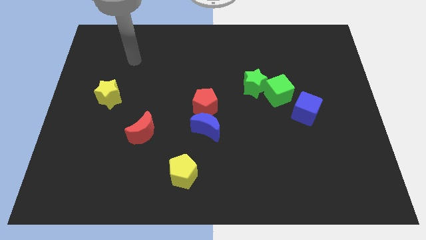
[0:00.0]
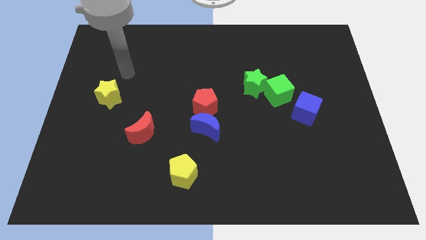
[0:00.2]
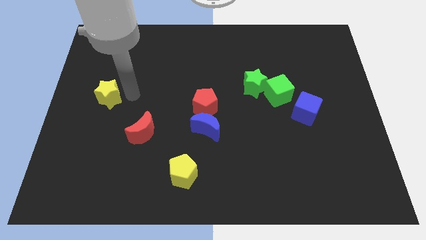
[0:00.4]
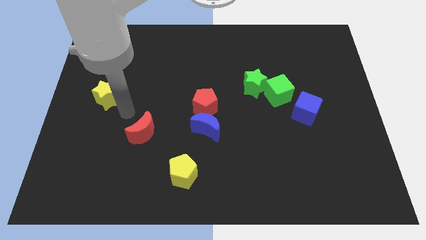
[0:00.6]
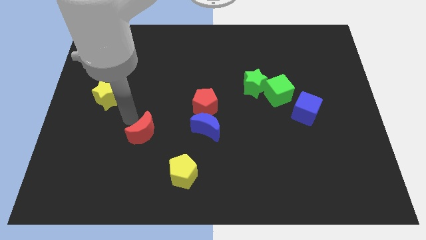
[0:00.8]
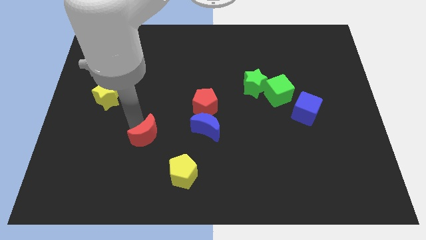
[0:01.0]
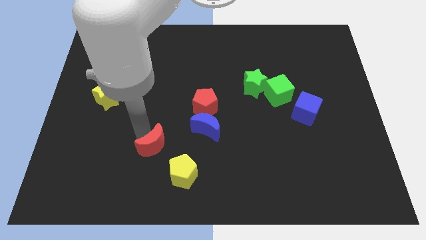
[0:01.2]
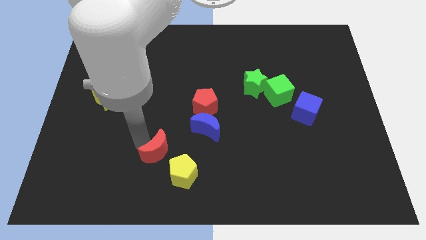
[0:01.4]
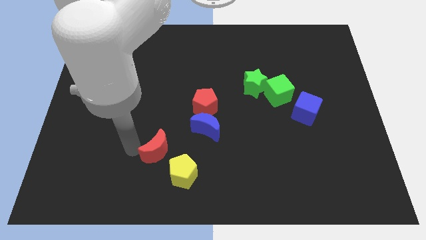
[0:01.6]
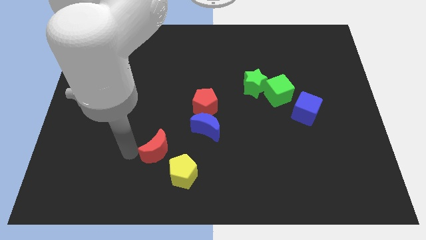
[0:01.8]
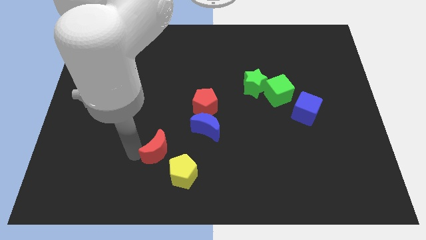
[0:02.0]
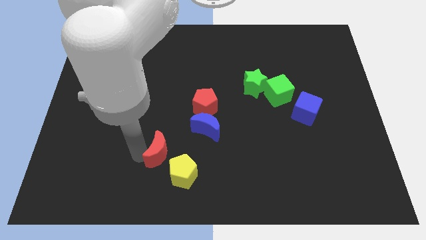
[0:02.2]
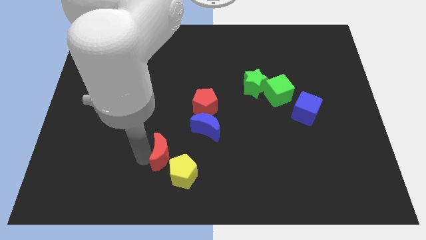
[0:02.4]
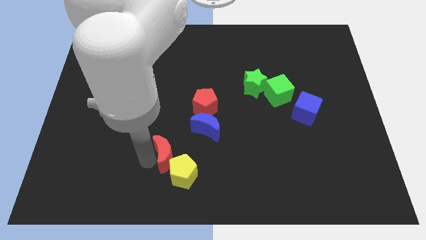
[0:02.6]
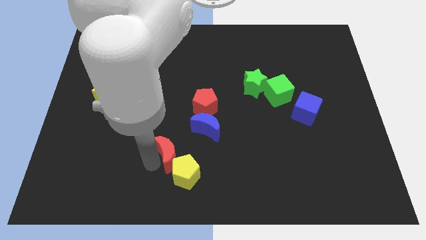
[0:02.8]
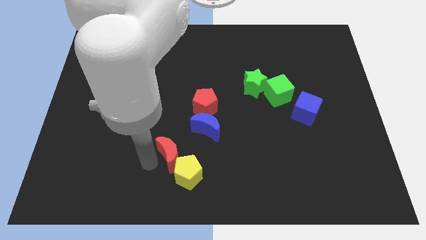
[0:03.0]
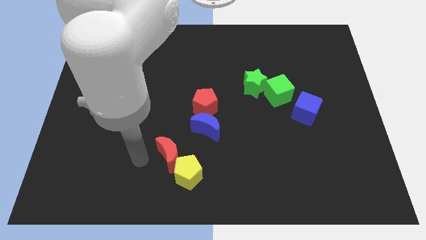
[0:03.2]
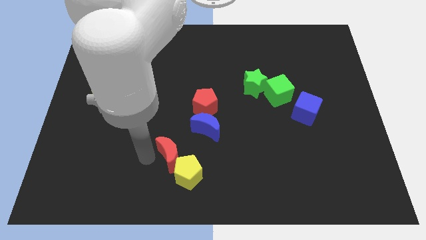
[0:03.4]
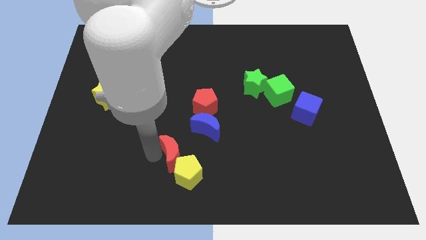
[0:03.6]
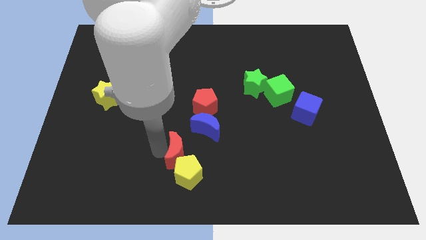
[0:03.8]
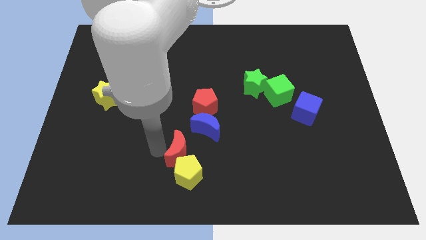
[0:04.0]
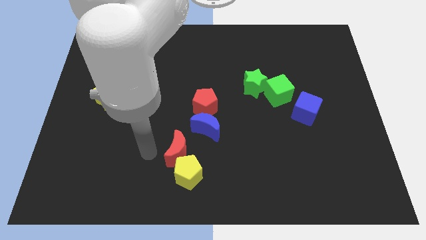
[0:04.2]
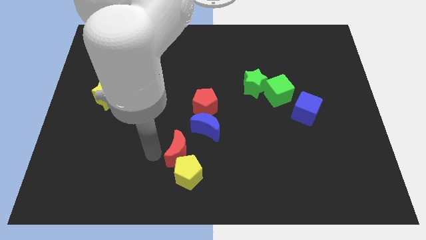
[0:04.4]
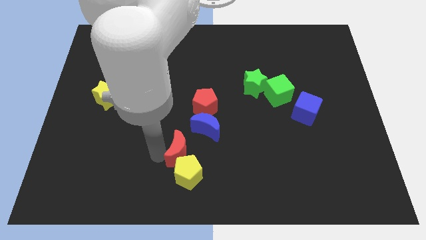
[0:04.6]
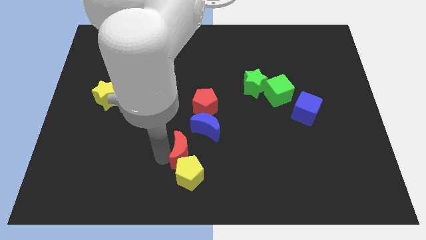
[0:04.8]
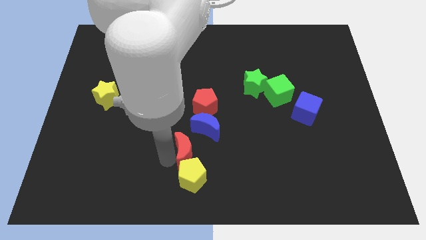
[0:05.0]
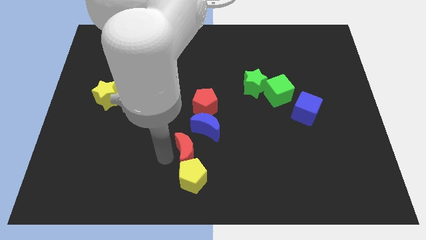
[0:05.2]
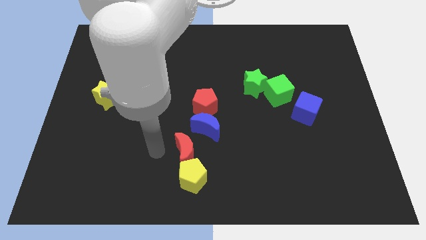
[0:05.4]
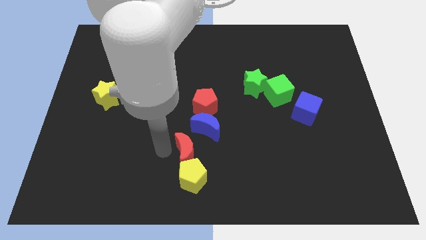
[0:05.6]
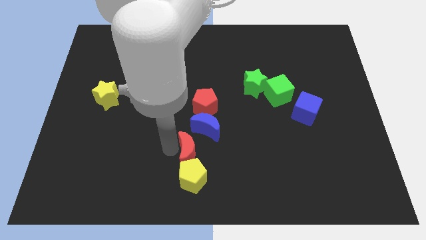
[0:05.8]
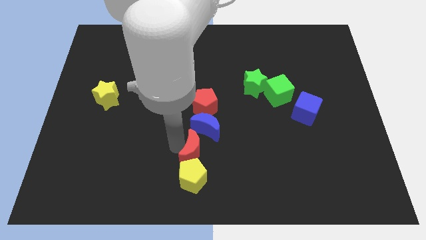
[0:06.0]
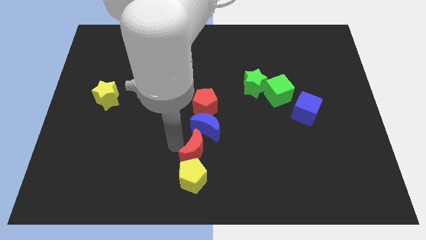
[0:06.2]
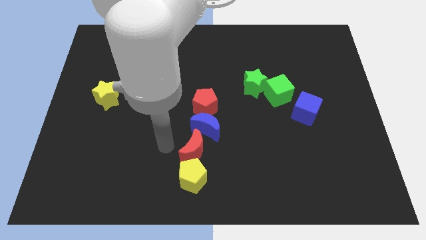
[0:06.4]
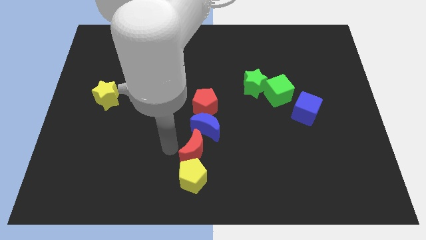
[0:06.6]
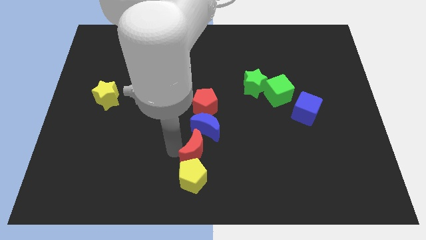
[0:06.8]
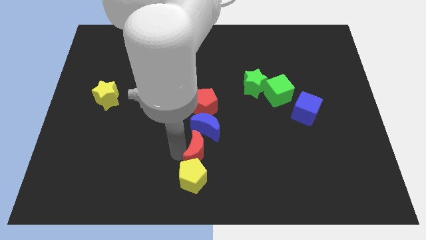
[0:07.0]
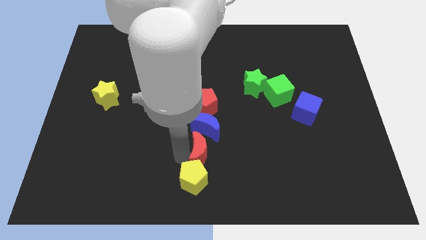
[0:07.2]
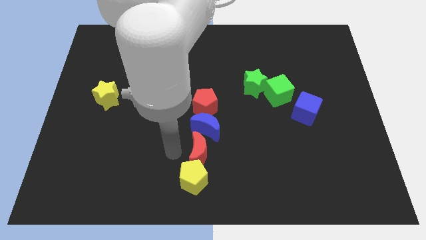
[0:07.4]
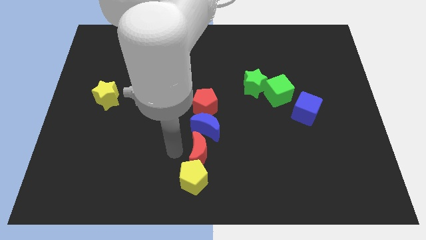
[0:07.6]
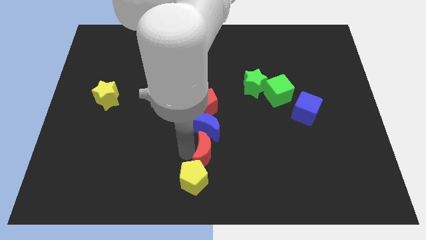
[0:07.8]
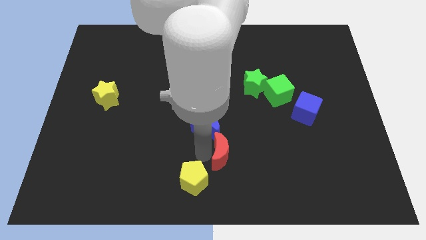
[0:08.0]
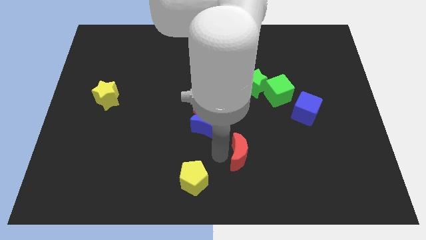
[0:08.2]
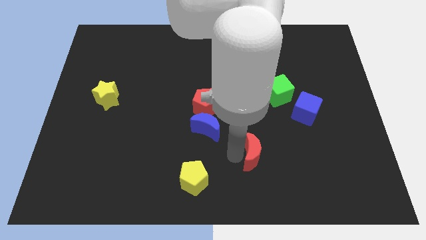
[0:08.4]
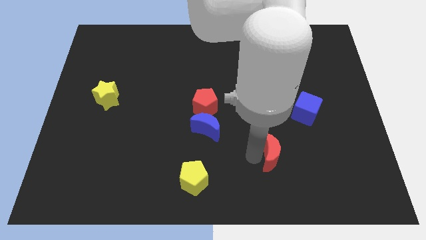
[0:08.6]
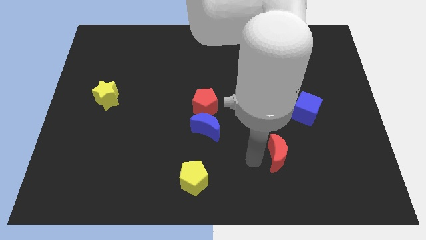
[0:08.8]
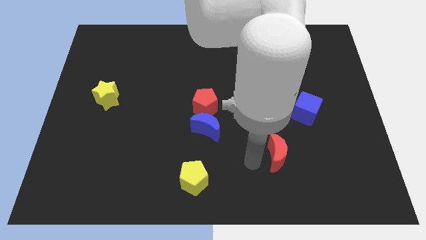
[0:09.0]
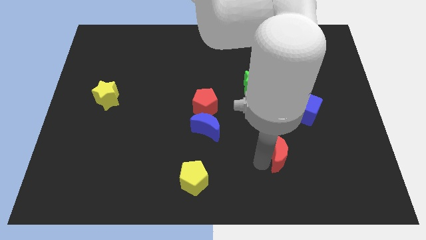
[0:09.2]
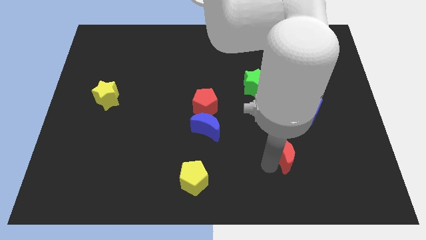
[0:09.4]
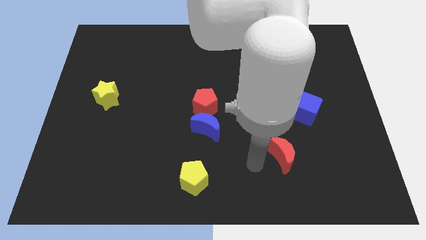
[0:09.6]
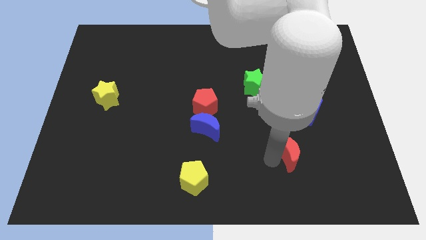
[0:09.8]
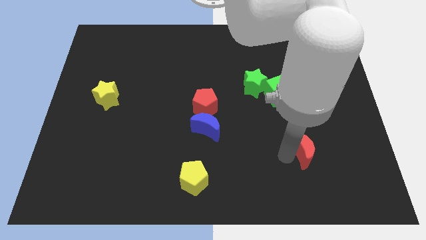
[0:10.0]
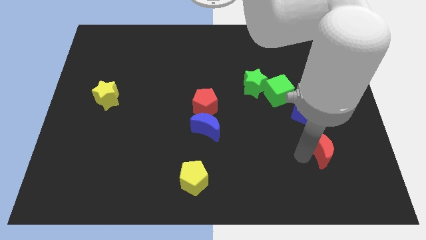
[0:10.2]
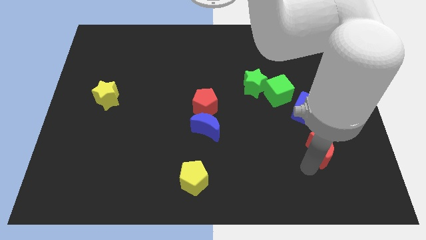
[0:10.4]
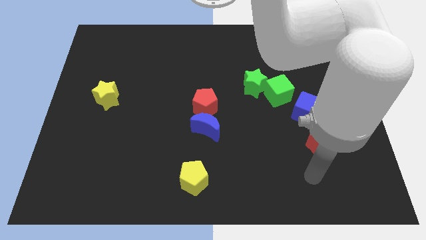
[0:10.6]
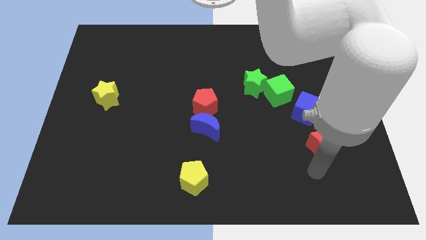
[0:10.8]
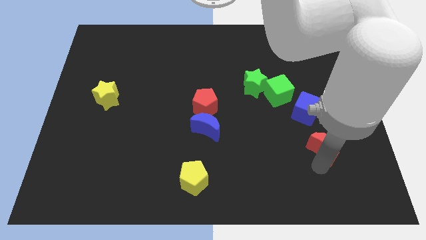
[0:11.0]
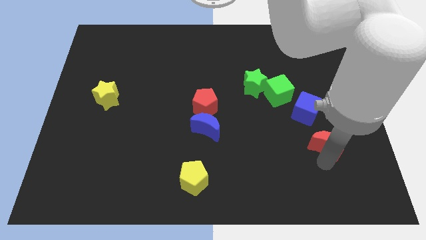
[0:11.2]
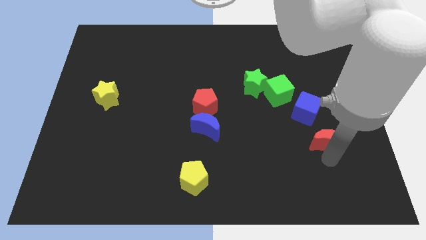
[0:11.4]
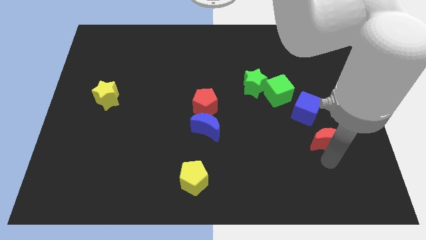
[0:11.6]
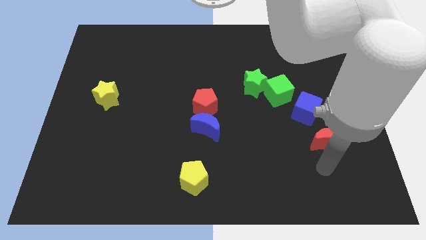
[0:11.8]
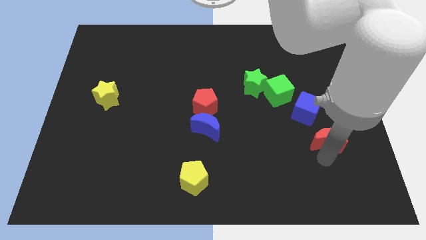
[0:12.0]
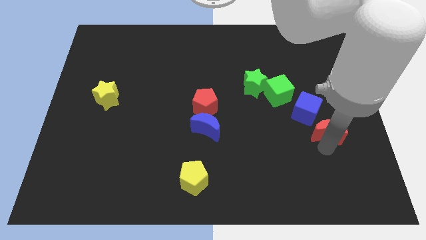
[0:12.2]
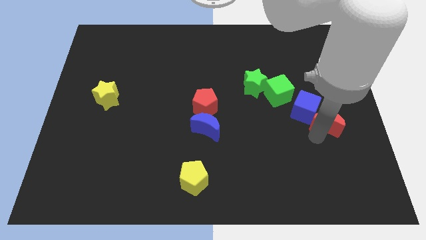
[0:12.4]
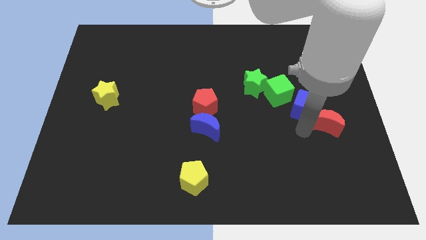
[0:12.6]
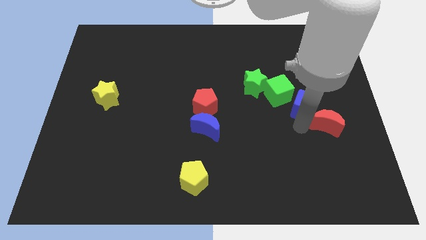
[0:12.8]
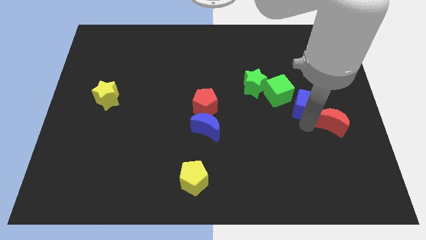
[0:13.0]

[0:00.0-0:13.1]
put the red moon to the center right

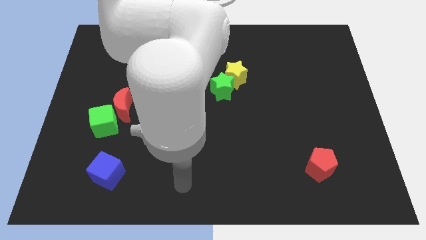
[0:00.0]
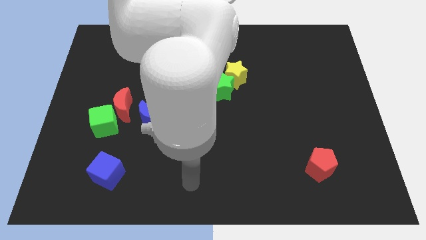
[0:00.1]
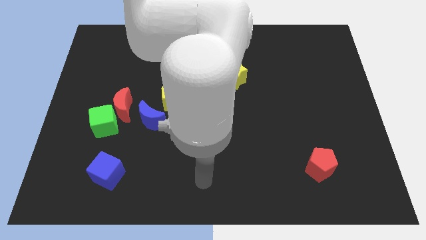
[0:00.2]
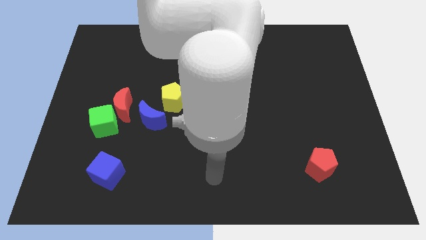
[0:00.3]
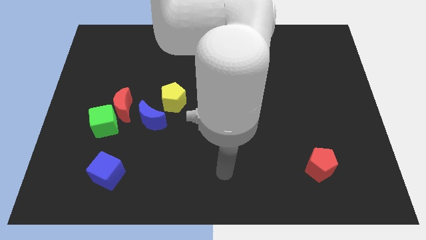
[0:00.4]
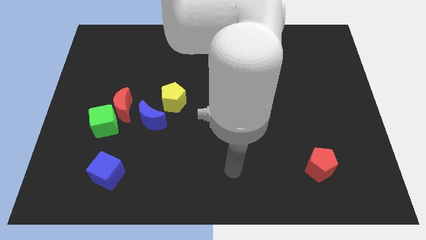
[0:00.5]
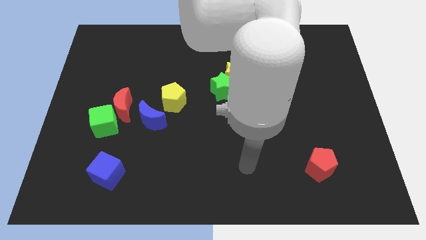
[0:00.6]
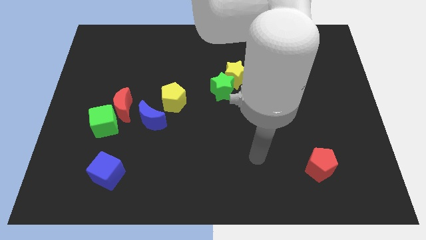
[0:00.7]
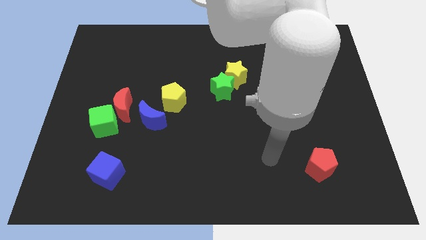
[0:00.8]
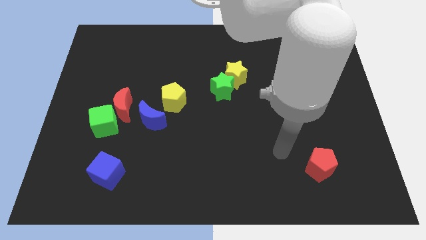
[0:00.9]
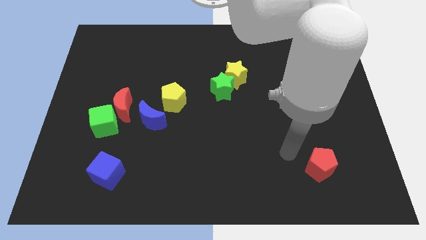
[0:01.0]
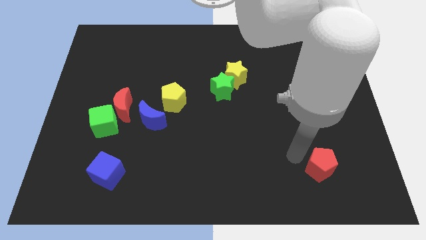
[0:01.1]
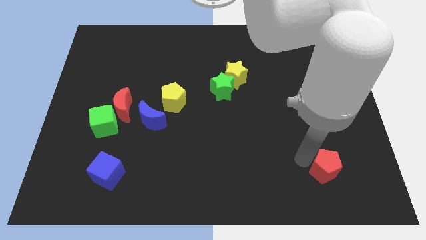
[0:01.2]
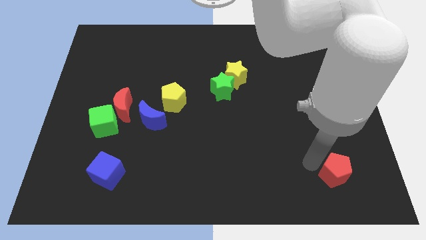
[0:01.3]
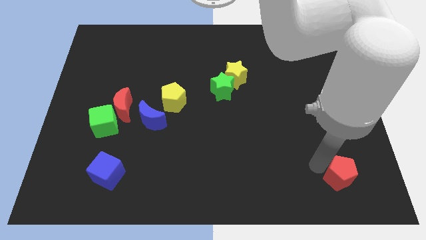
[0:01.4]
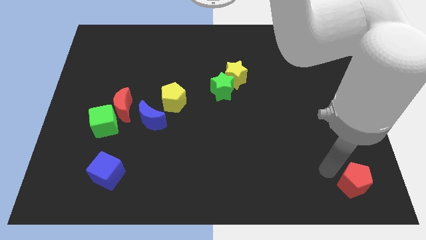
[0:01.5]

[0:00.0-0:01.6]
slide the red pentagon to the bottom right of the board
